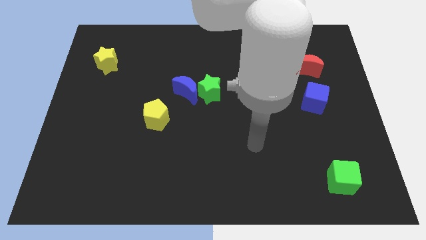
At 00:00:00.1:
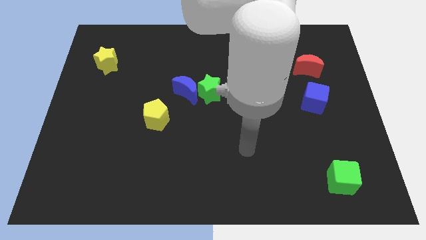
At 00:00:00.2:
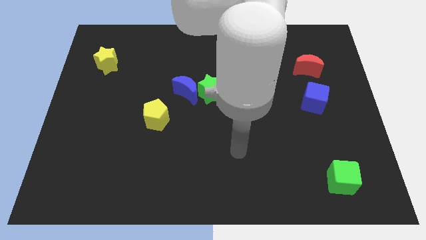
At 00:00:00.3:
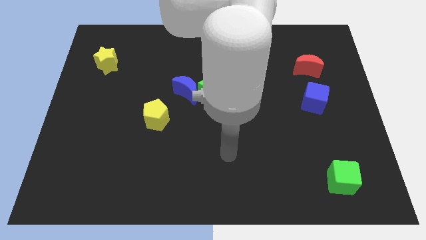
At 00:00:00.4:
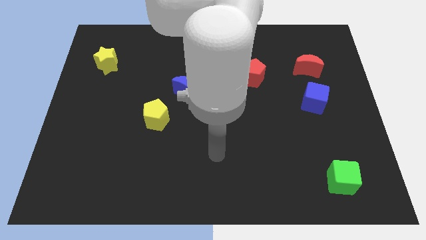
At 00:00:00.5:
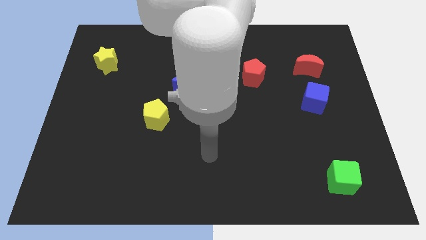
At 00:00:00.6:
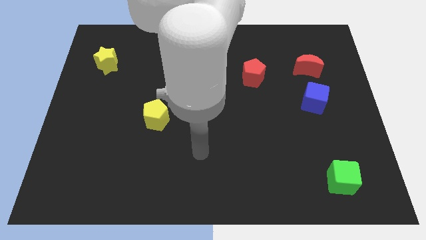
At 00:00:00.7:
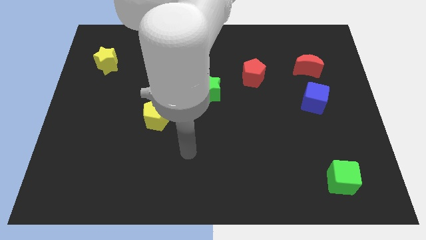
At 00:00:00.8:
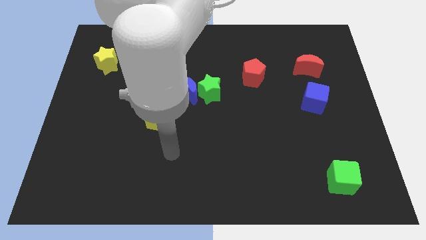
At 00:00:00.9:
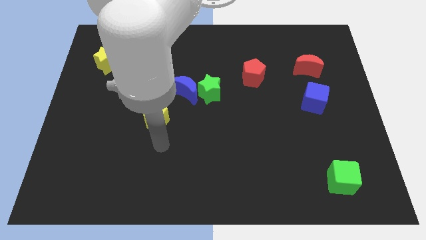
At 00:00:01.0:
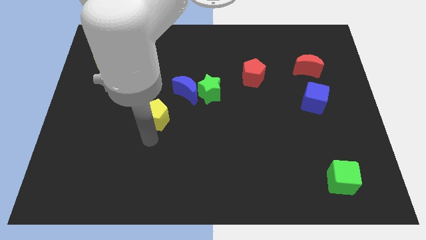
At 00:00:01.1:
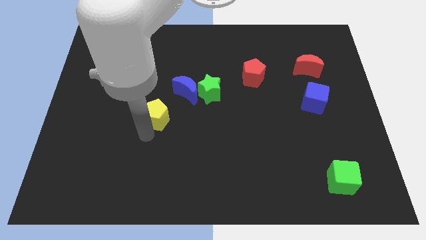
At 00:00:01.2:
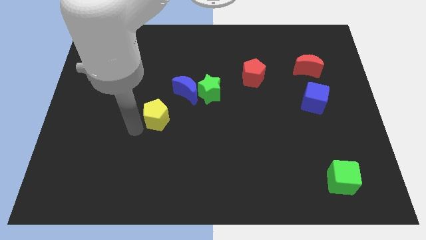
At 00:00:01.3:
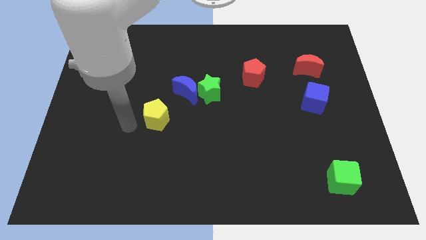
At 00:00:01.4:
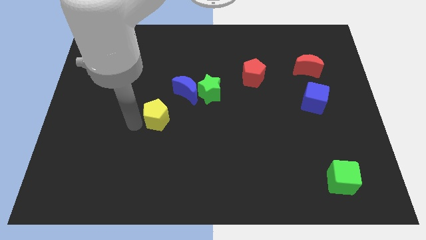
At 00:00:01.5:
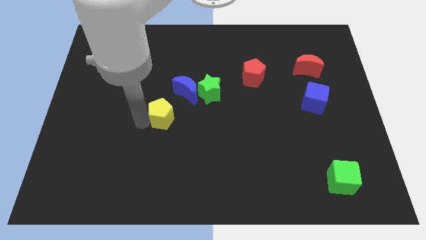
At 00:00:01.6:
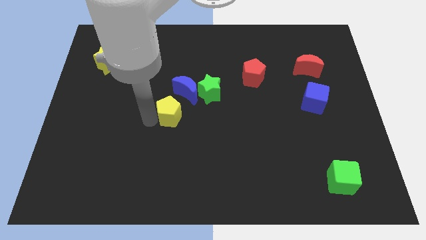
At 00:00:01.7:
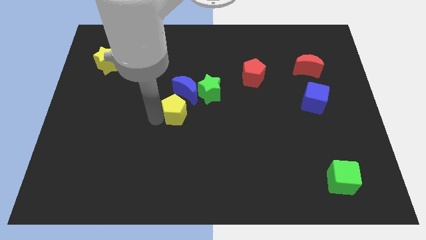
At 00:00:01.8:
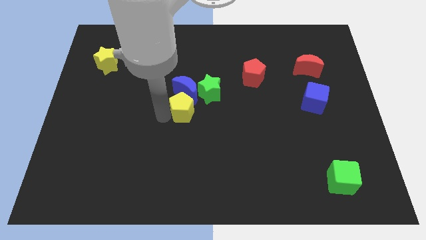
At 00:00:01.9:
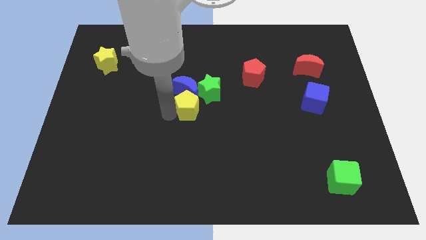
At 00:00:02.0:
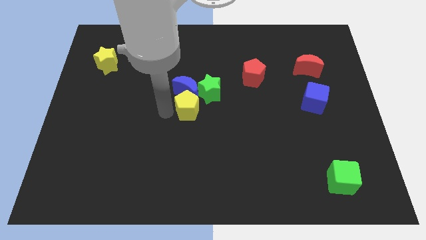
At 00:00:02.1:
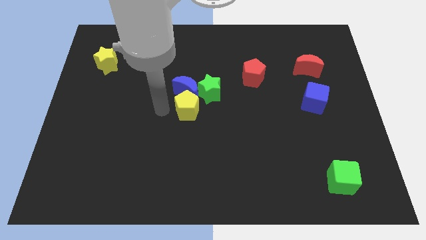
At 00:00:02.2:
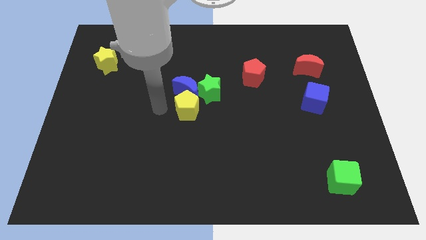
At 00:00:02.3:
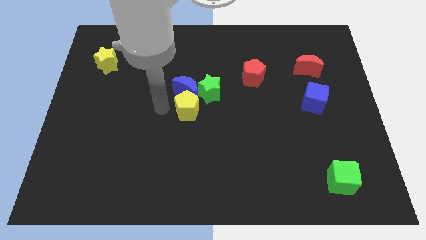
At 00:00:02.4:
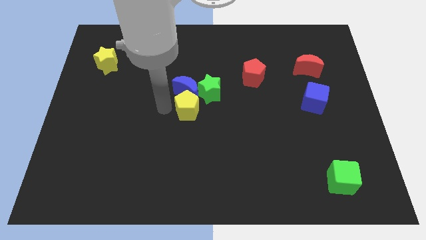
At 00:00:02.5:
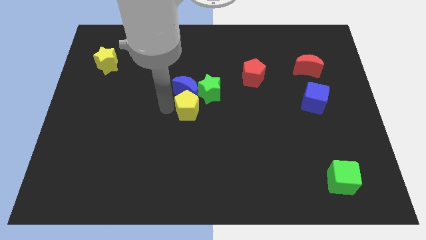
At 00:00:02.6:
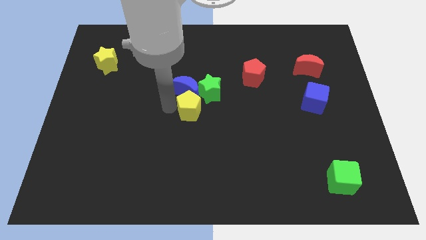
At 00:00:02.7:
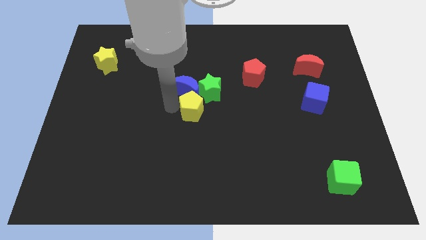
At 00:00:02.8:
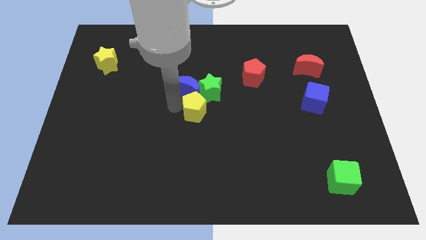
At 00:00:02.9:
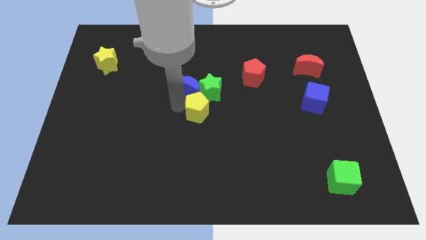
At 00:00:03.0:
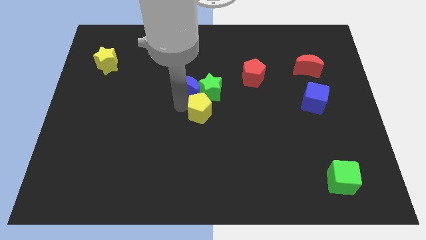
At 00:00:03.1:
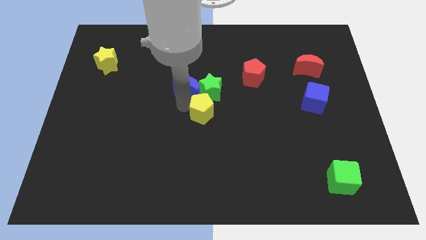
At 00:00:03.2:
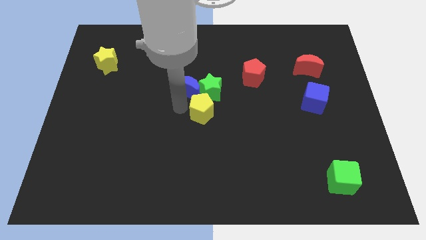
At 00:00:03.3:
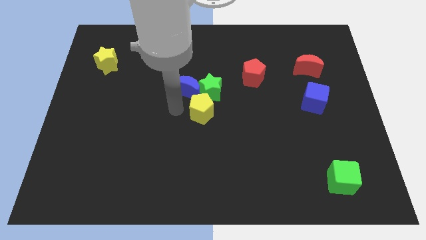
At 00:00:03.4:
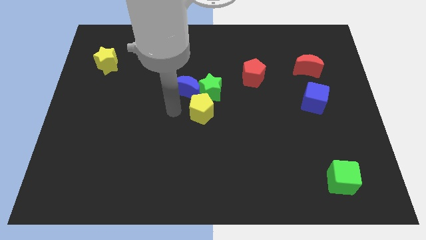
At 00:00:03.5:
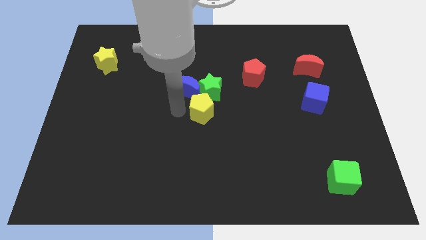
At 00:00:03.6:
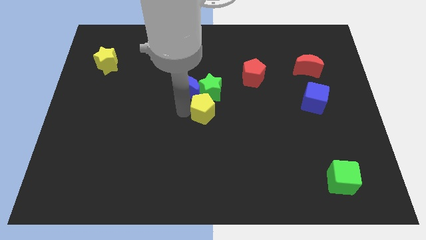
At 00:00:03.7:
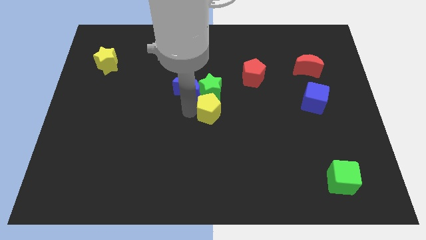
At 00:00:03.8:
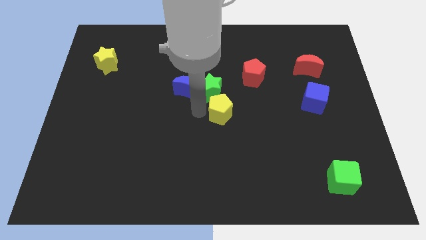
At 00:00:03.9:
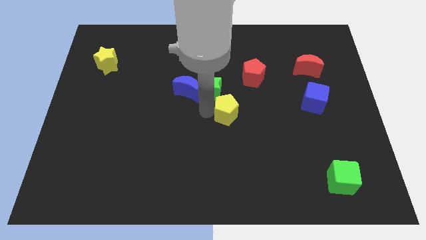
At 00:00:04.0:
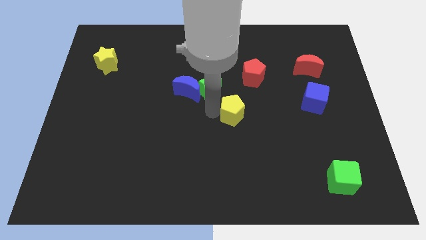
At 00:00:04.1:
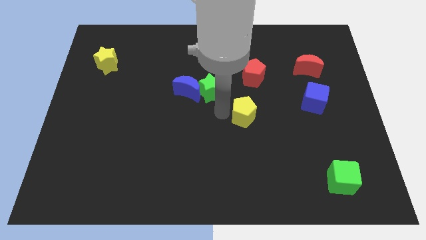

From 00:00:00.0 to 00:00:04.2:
move the yellow pentagon right

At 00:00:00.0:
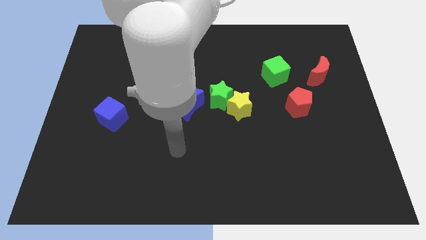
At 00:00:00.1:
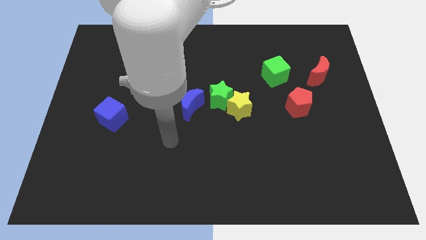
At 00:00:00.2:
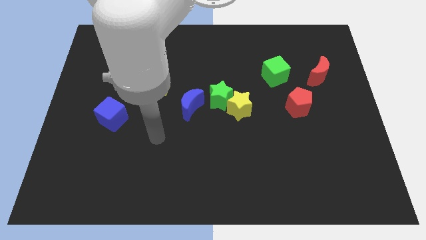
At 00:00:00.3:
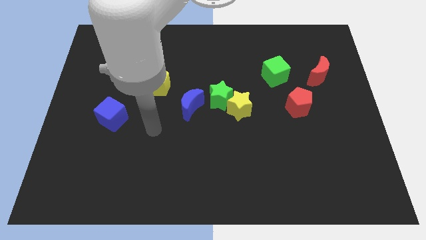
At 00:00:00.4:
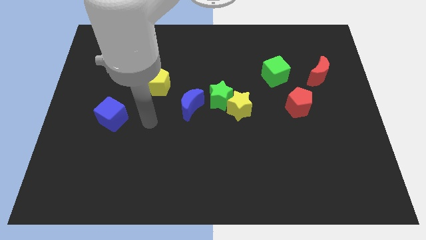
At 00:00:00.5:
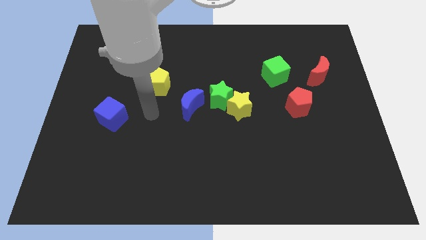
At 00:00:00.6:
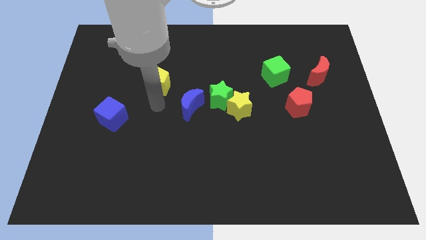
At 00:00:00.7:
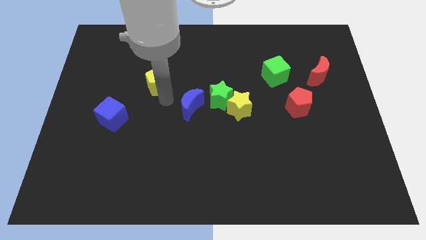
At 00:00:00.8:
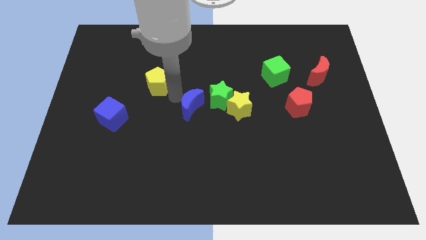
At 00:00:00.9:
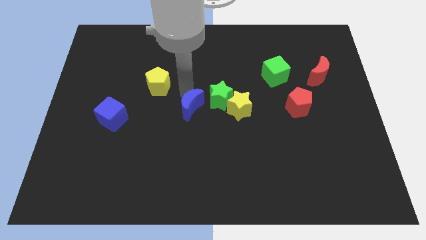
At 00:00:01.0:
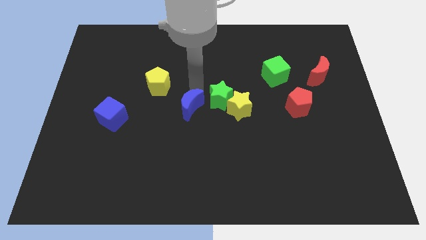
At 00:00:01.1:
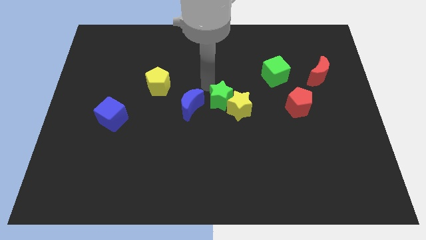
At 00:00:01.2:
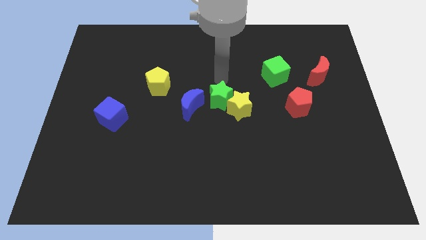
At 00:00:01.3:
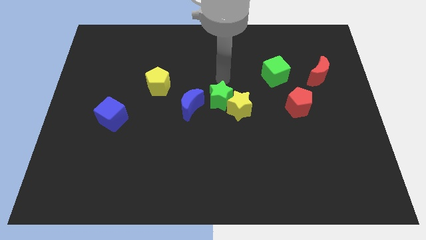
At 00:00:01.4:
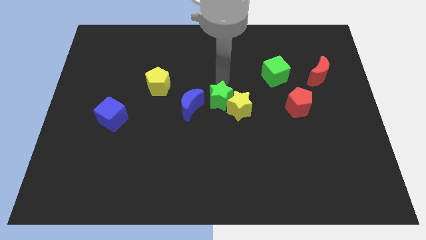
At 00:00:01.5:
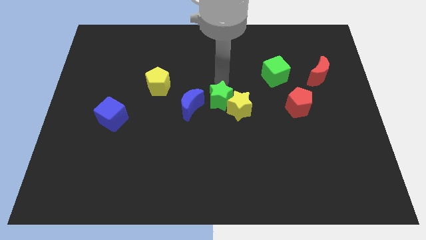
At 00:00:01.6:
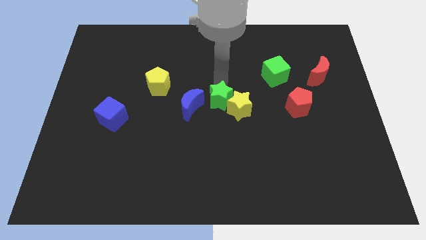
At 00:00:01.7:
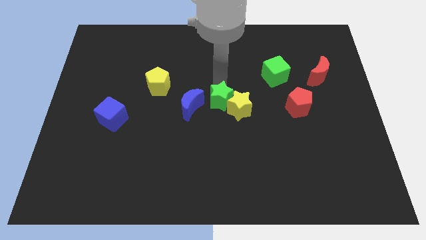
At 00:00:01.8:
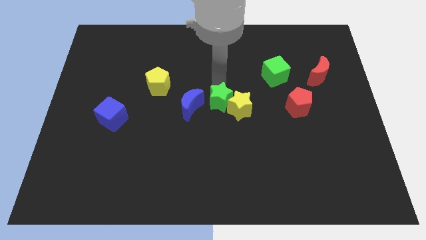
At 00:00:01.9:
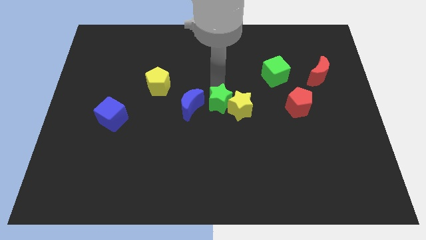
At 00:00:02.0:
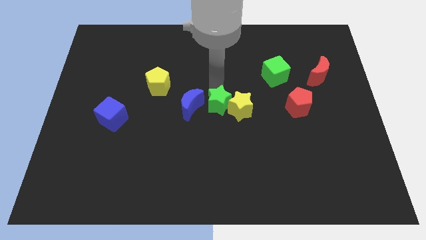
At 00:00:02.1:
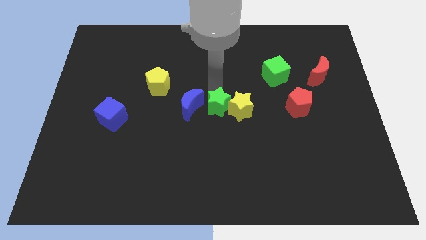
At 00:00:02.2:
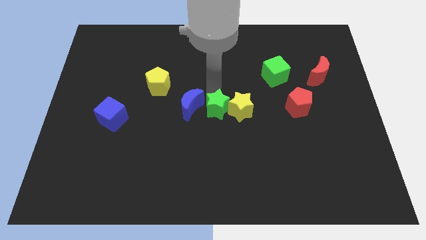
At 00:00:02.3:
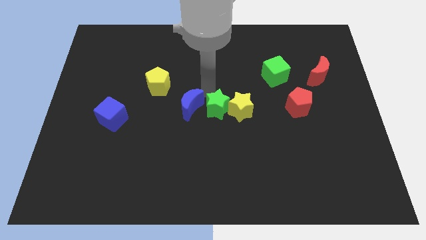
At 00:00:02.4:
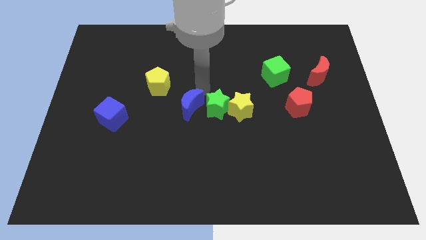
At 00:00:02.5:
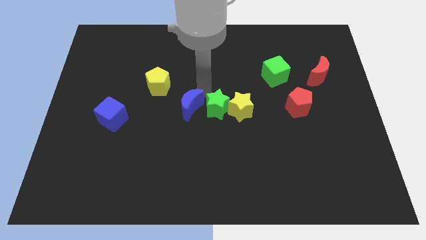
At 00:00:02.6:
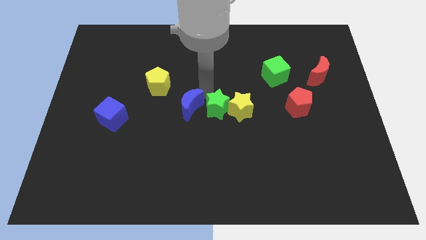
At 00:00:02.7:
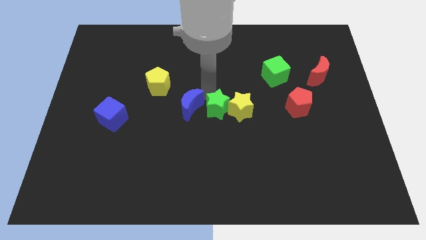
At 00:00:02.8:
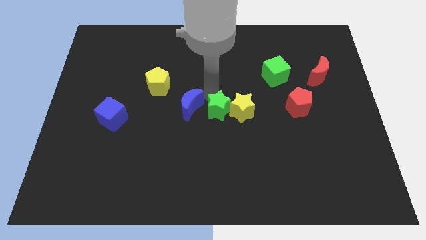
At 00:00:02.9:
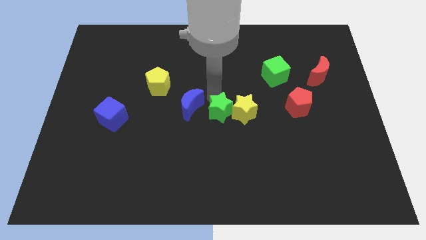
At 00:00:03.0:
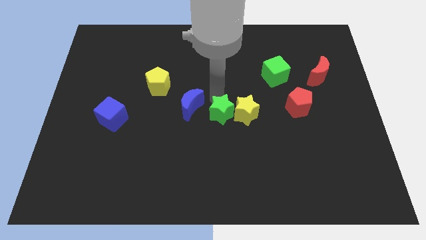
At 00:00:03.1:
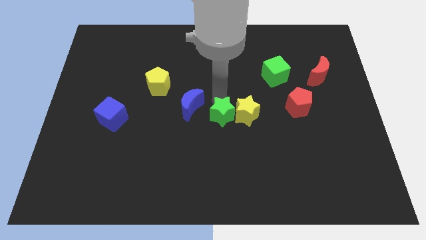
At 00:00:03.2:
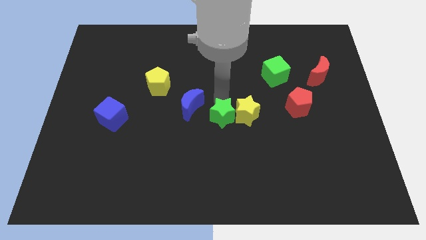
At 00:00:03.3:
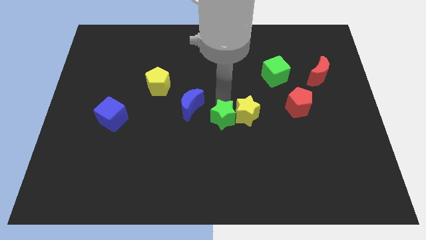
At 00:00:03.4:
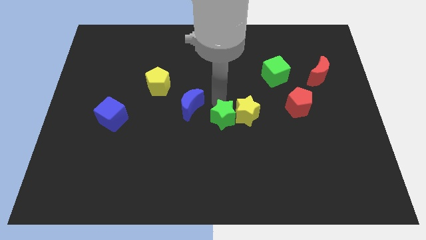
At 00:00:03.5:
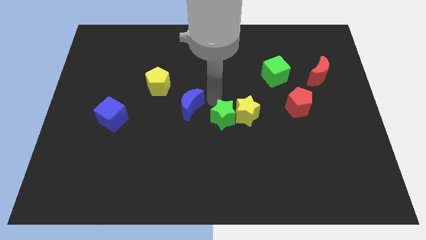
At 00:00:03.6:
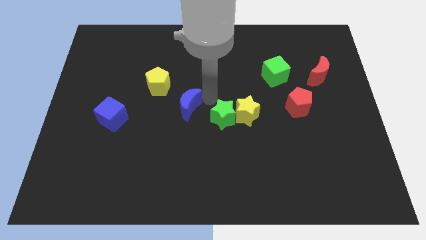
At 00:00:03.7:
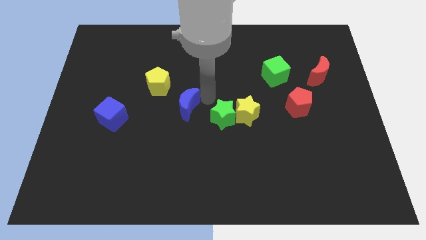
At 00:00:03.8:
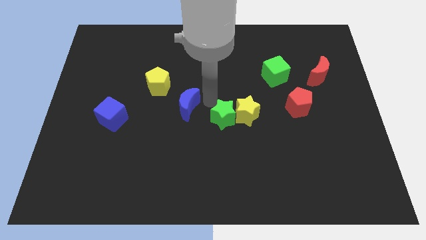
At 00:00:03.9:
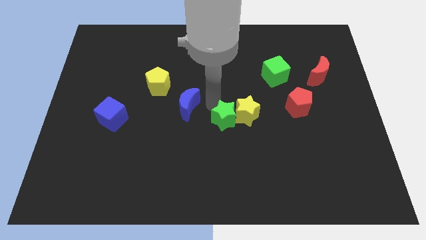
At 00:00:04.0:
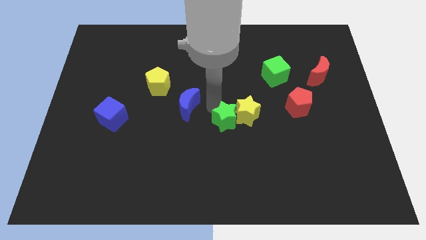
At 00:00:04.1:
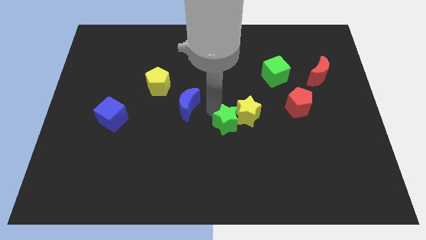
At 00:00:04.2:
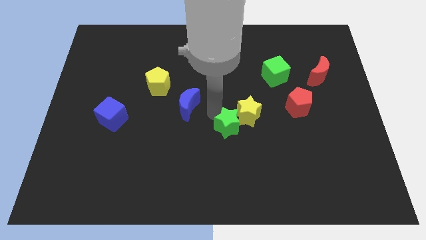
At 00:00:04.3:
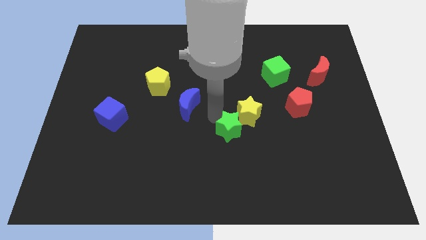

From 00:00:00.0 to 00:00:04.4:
slide the green star downwards and right slightly
